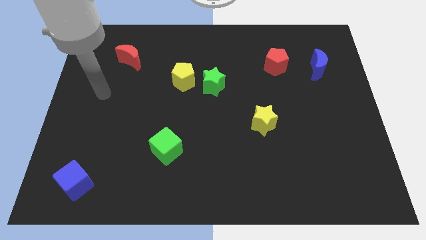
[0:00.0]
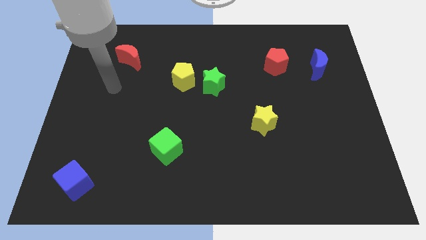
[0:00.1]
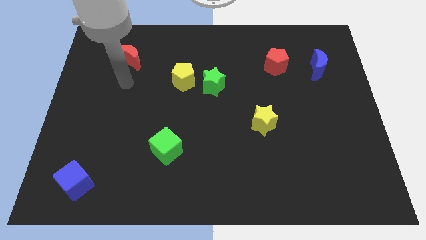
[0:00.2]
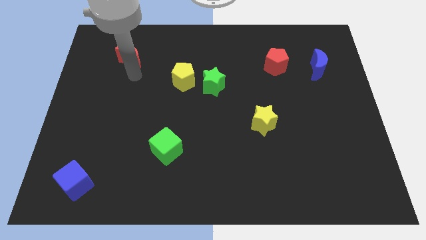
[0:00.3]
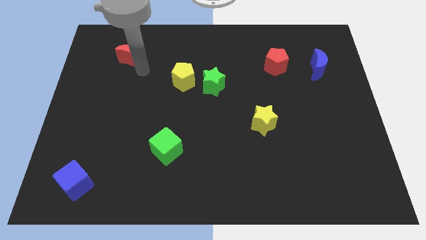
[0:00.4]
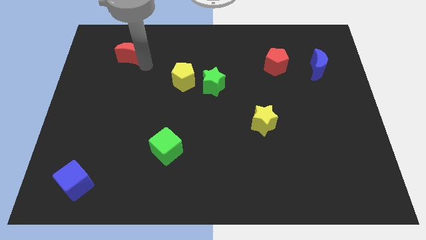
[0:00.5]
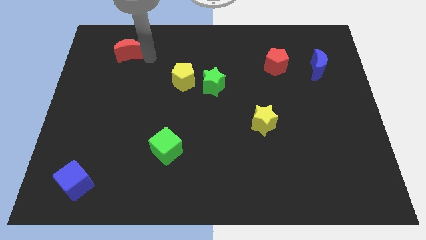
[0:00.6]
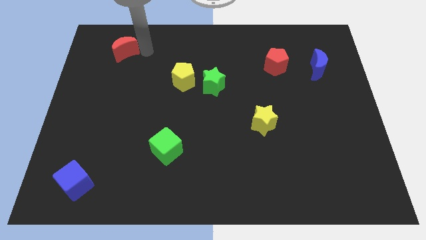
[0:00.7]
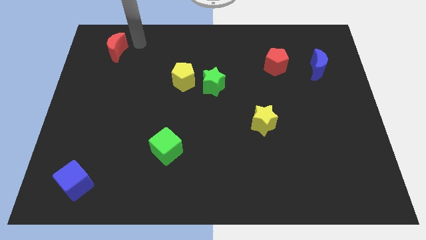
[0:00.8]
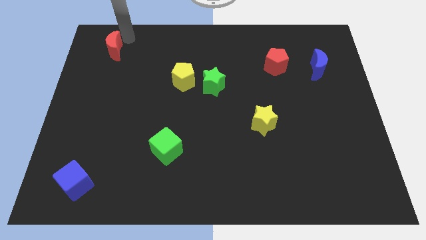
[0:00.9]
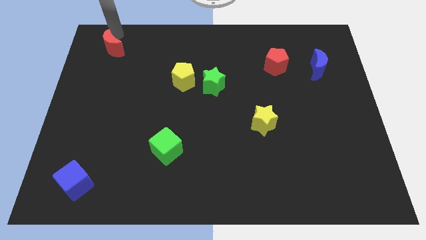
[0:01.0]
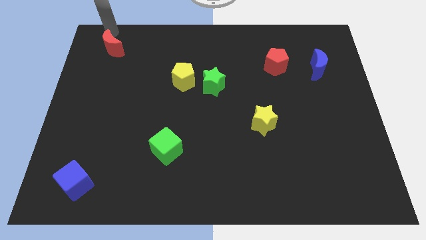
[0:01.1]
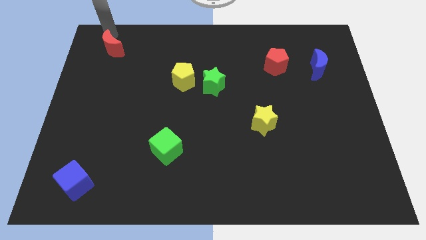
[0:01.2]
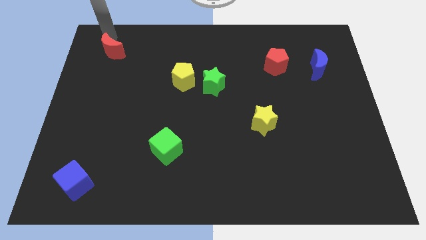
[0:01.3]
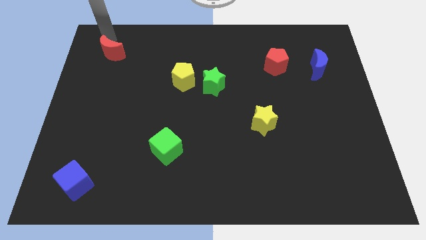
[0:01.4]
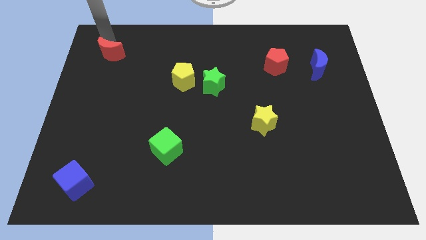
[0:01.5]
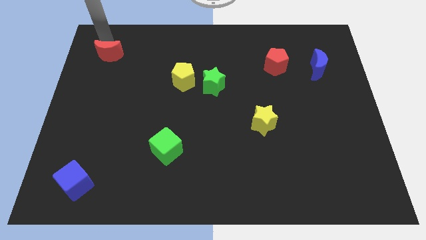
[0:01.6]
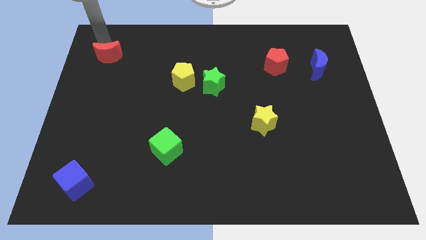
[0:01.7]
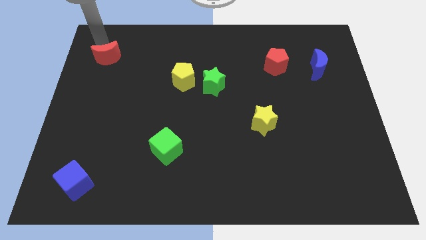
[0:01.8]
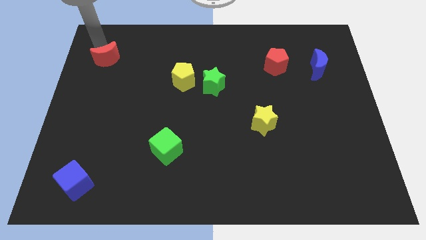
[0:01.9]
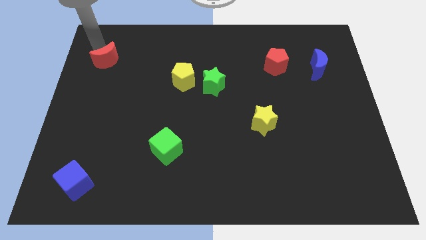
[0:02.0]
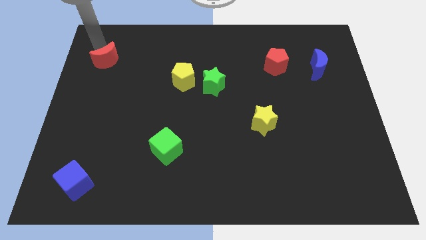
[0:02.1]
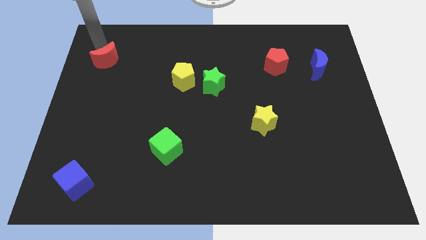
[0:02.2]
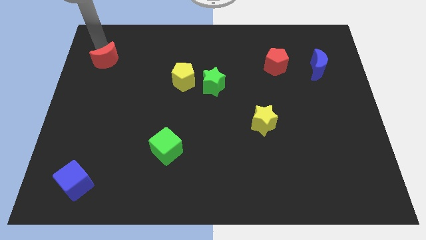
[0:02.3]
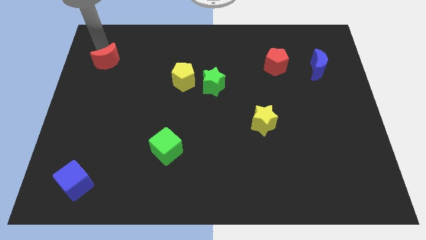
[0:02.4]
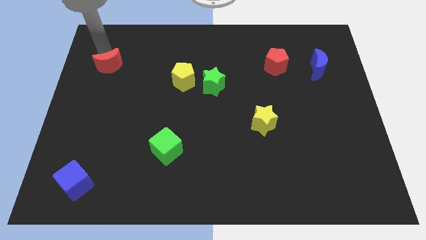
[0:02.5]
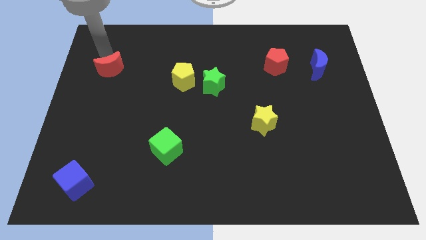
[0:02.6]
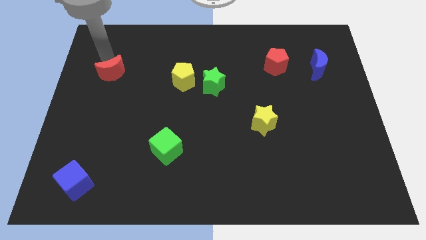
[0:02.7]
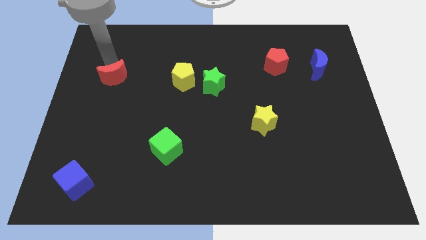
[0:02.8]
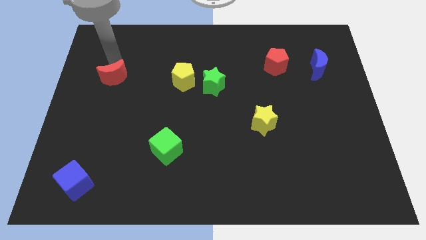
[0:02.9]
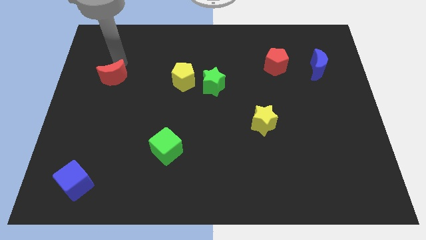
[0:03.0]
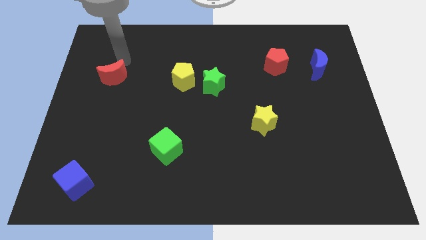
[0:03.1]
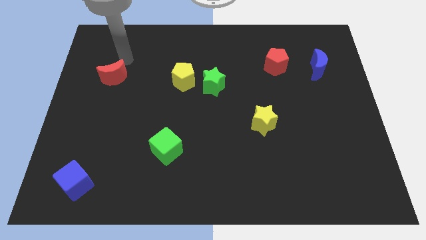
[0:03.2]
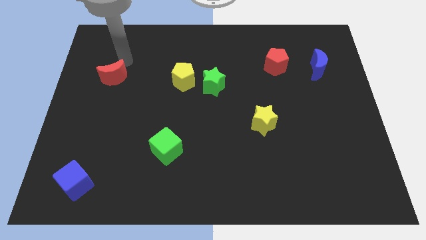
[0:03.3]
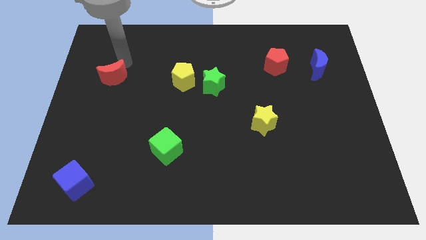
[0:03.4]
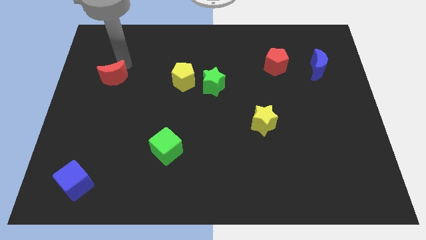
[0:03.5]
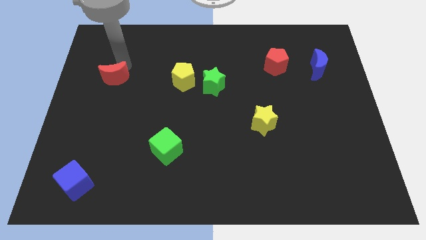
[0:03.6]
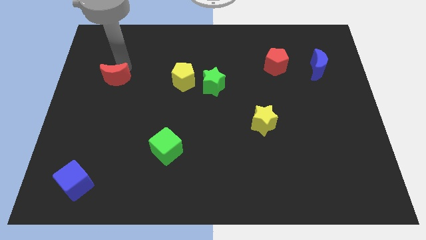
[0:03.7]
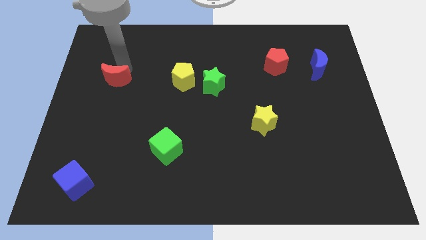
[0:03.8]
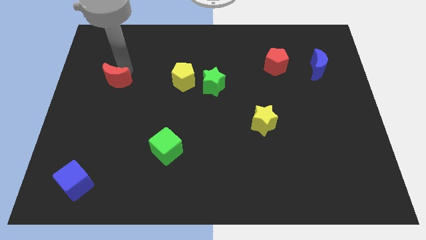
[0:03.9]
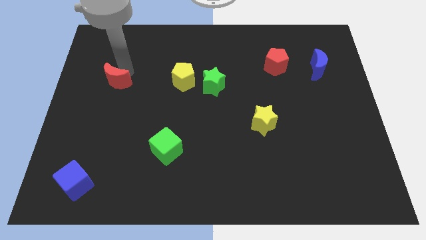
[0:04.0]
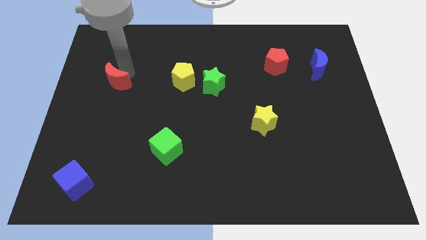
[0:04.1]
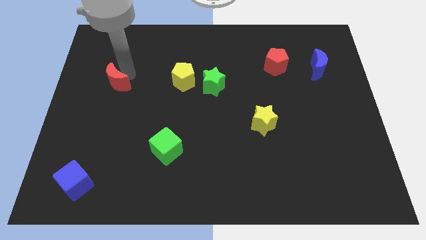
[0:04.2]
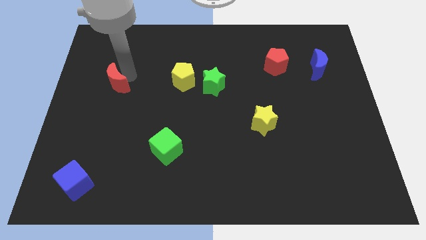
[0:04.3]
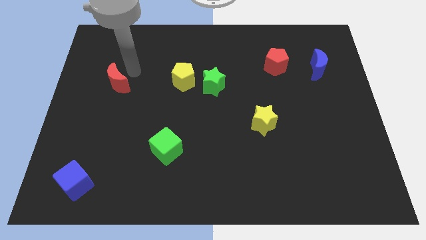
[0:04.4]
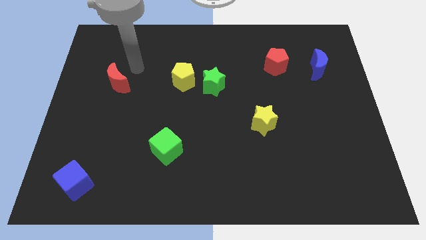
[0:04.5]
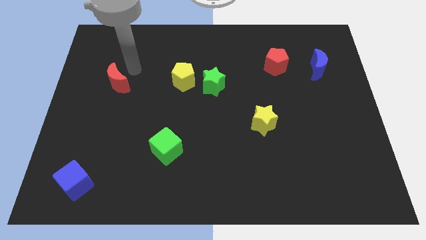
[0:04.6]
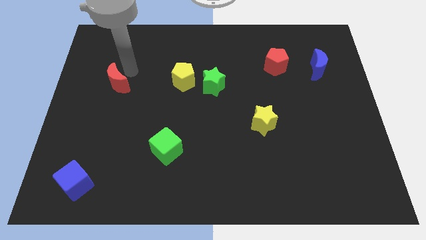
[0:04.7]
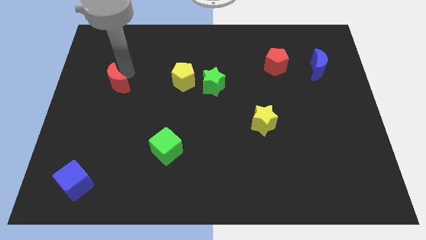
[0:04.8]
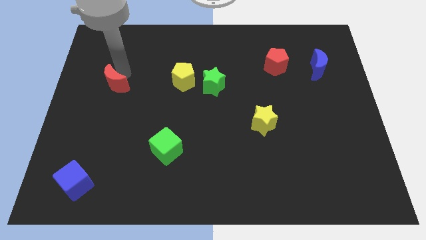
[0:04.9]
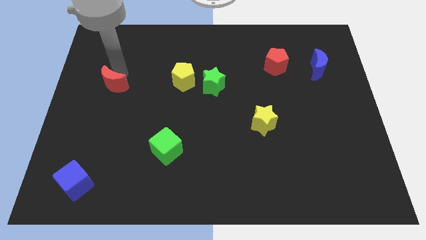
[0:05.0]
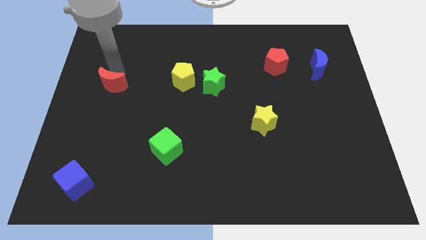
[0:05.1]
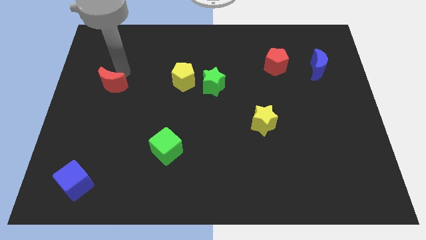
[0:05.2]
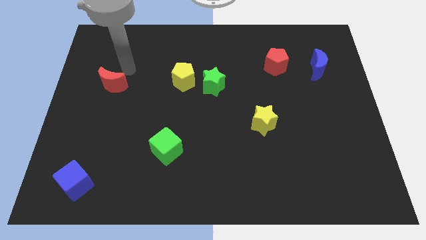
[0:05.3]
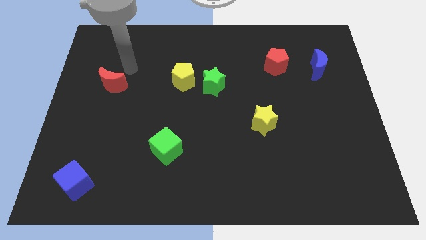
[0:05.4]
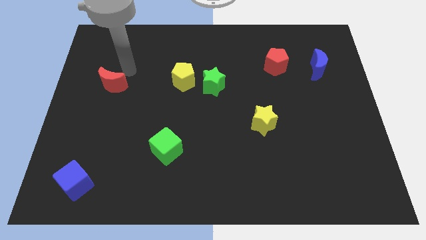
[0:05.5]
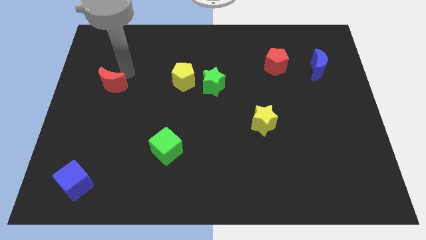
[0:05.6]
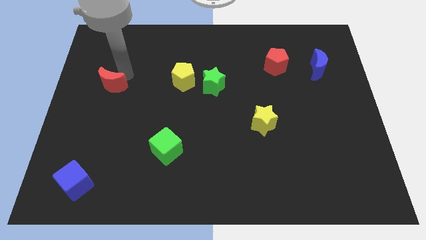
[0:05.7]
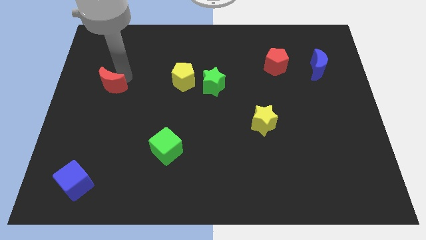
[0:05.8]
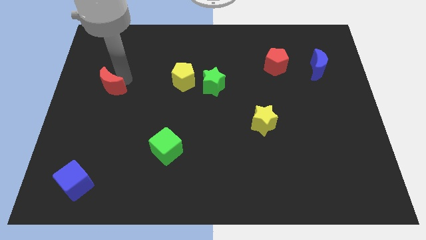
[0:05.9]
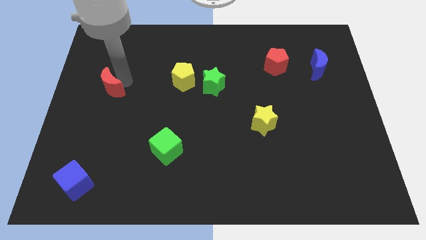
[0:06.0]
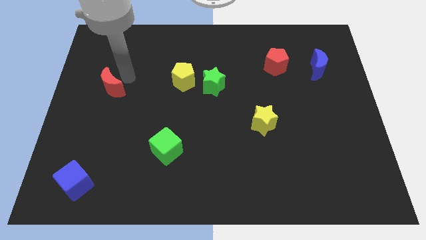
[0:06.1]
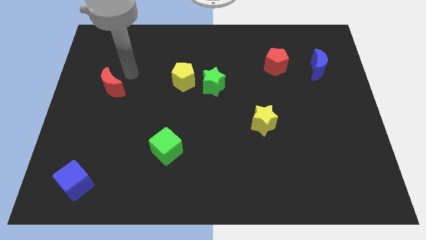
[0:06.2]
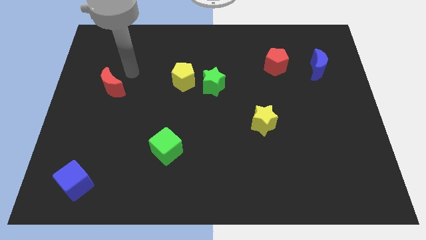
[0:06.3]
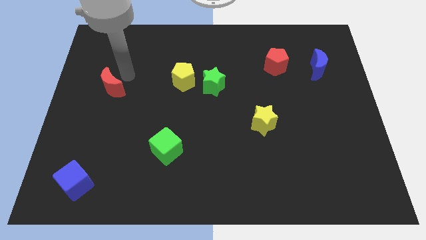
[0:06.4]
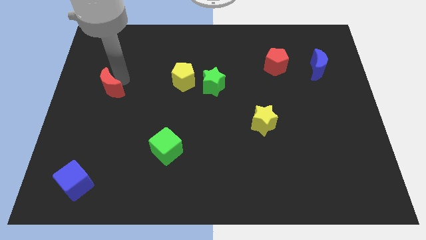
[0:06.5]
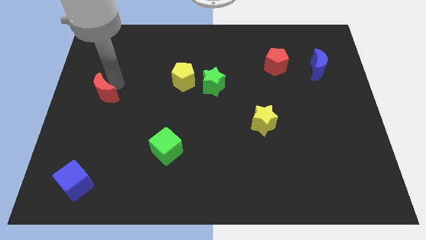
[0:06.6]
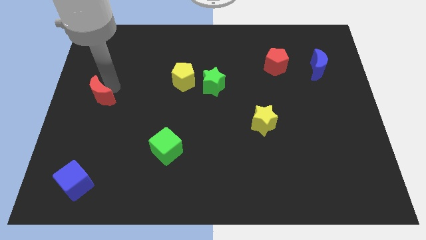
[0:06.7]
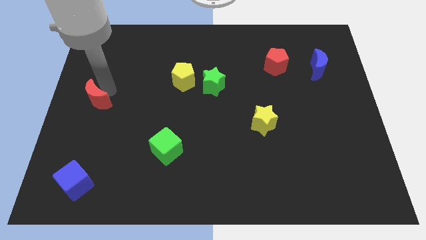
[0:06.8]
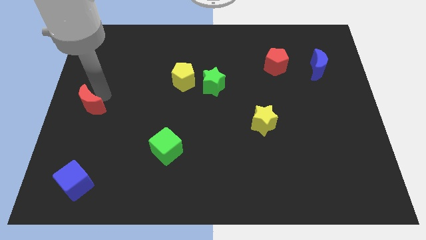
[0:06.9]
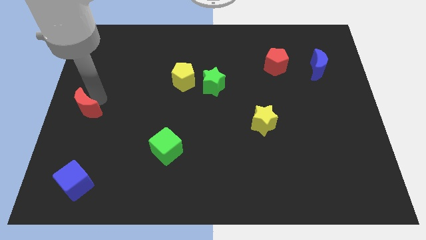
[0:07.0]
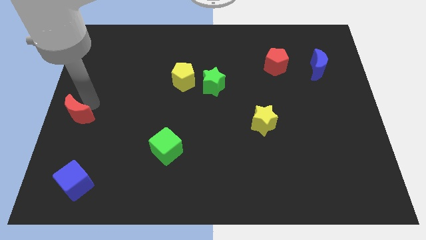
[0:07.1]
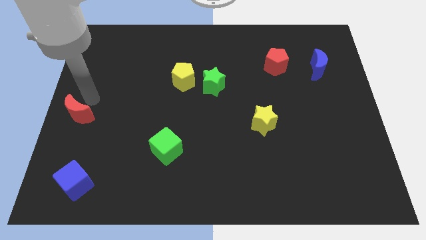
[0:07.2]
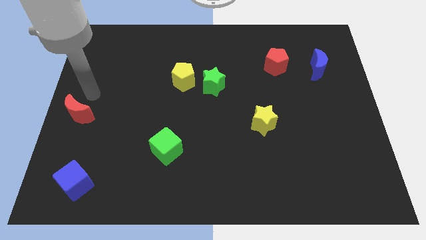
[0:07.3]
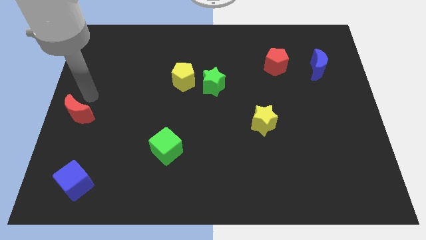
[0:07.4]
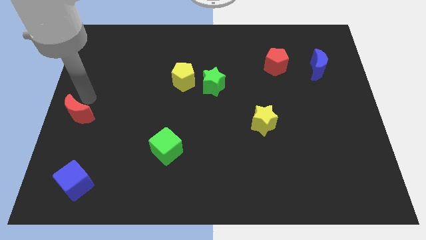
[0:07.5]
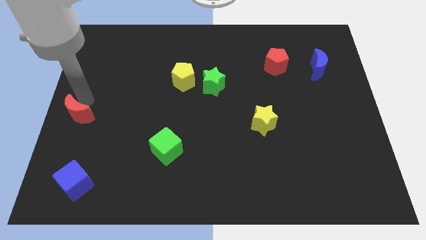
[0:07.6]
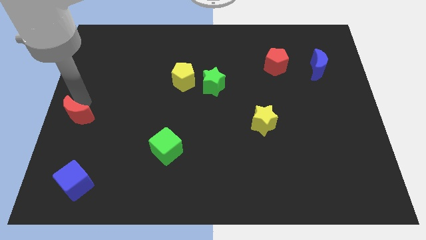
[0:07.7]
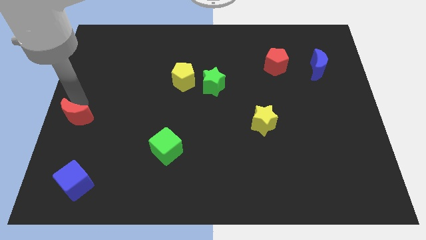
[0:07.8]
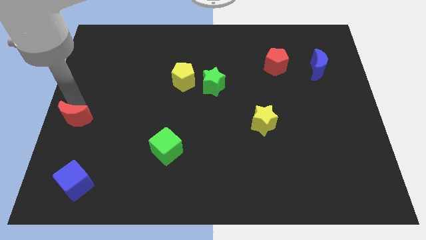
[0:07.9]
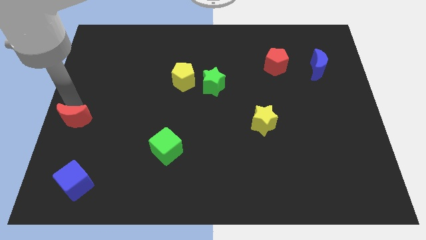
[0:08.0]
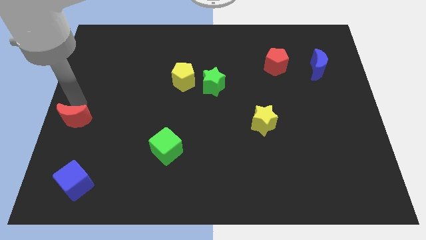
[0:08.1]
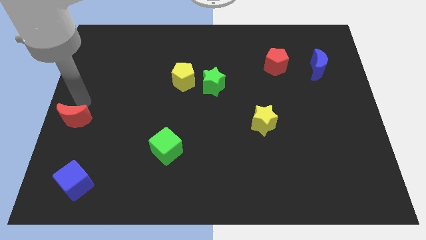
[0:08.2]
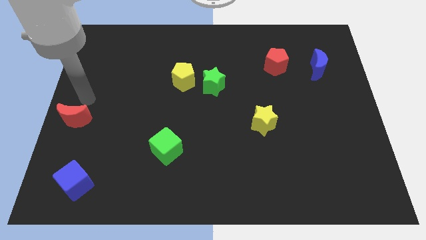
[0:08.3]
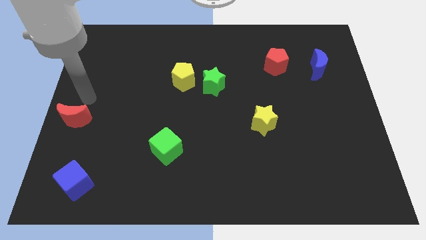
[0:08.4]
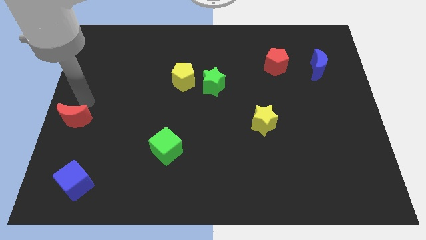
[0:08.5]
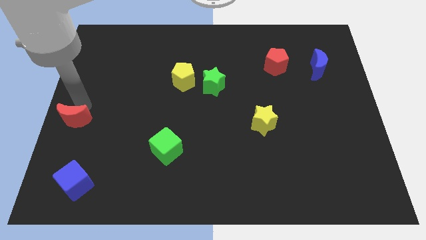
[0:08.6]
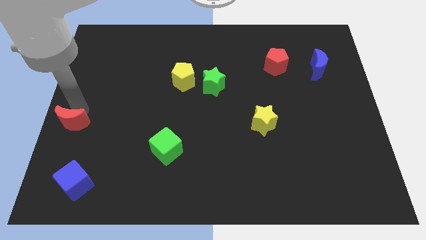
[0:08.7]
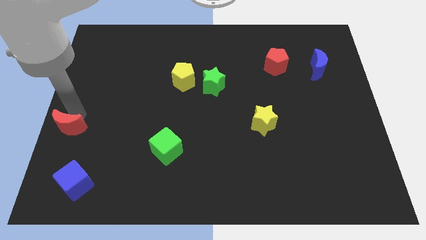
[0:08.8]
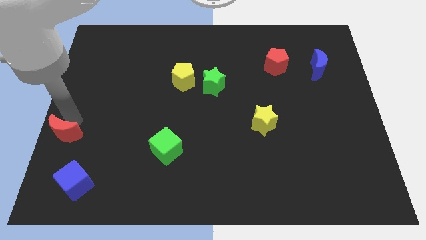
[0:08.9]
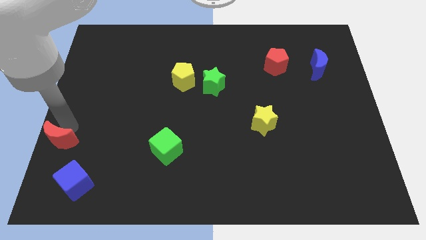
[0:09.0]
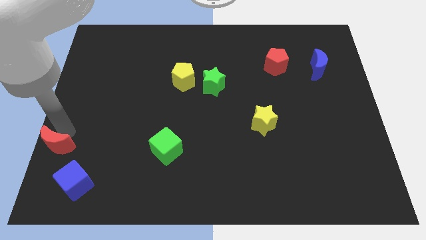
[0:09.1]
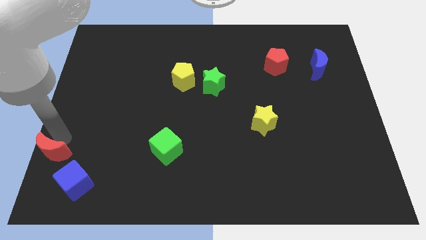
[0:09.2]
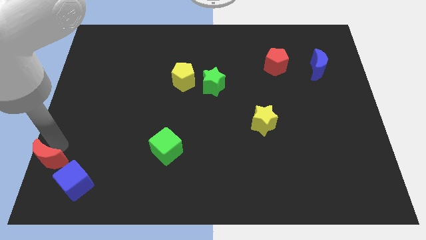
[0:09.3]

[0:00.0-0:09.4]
move the red moon to the bottom left
